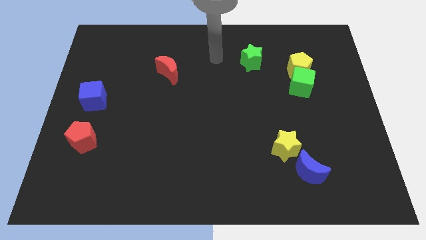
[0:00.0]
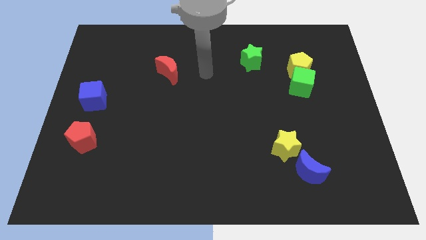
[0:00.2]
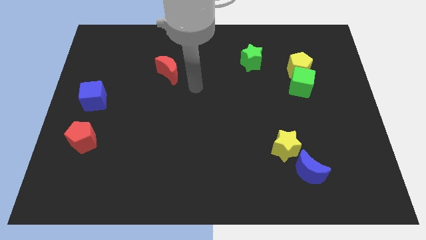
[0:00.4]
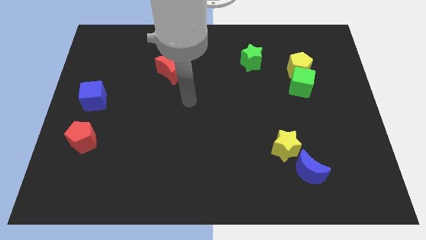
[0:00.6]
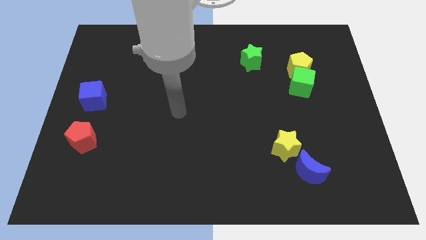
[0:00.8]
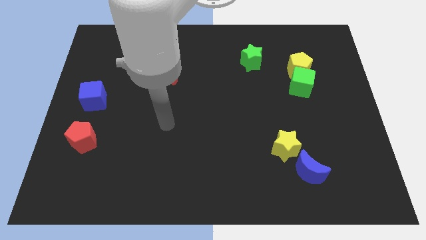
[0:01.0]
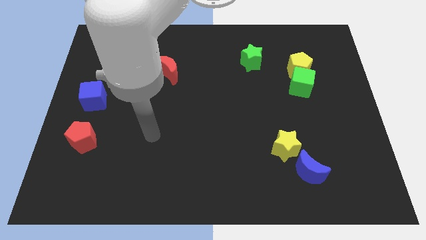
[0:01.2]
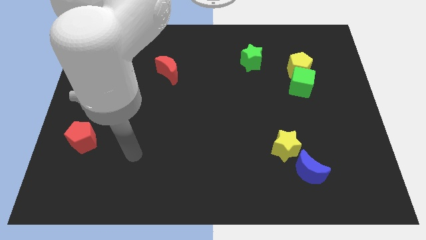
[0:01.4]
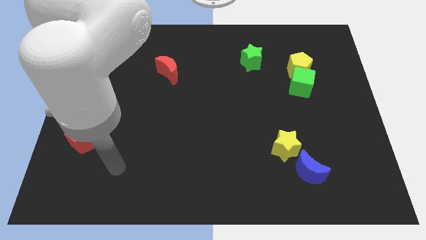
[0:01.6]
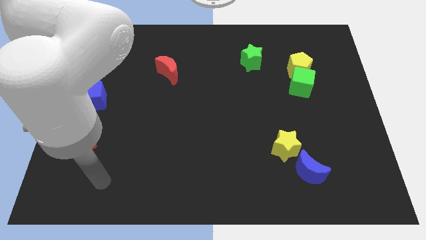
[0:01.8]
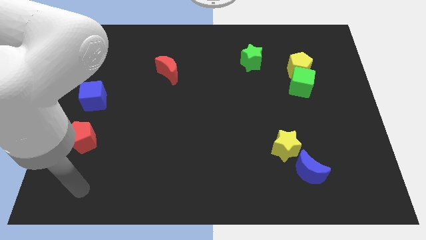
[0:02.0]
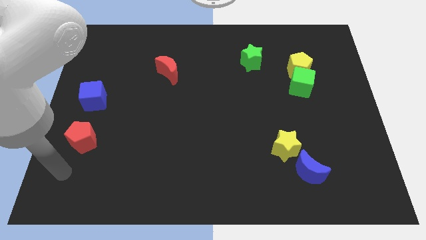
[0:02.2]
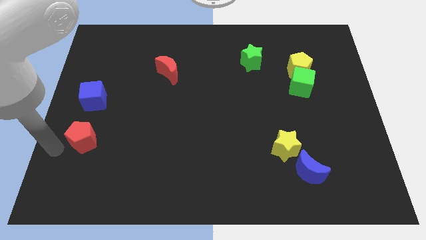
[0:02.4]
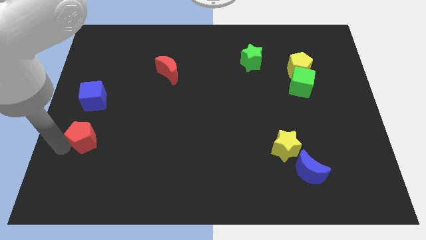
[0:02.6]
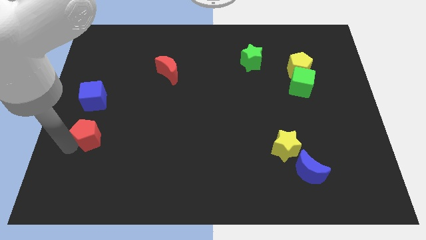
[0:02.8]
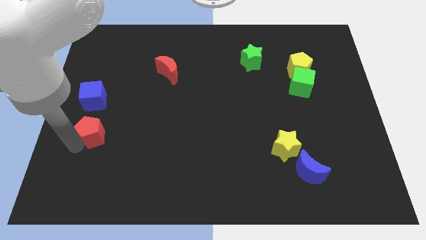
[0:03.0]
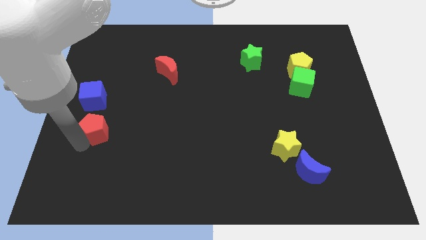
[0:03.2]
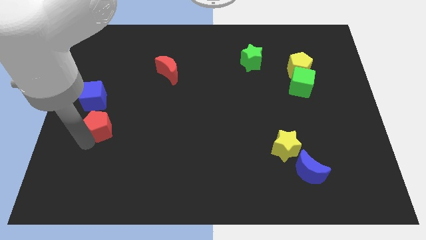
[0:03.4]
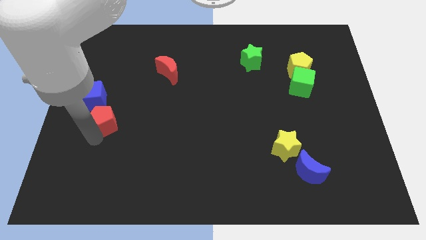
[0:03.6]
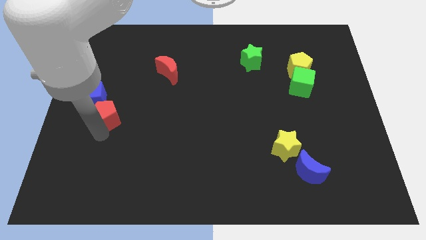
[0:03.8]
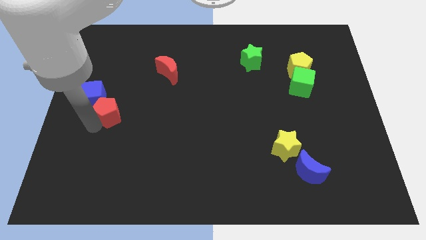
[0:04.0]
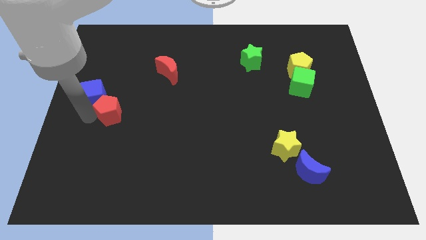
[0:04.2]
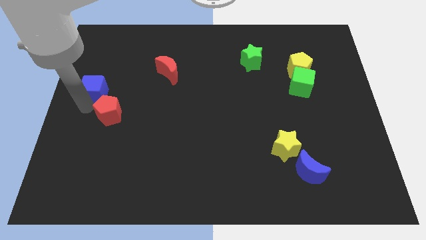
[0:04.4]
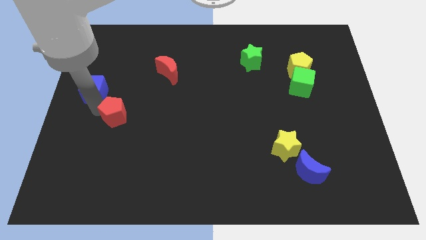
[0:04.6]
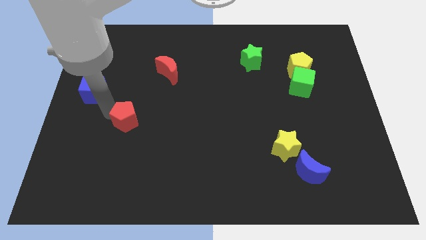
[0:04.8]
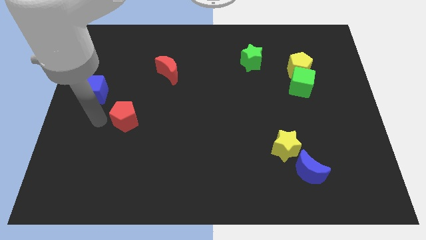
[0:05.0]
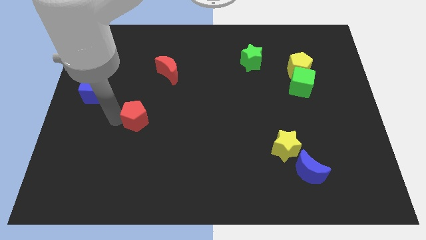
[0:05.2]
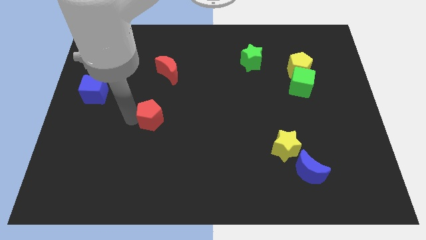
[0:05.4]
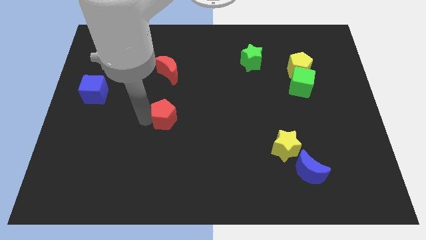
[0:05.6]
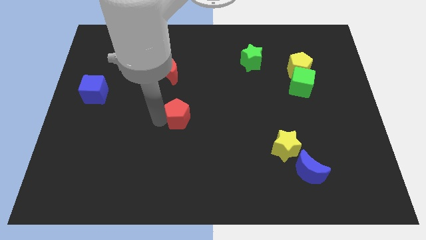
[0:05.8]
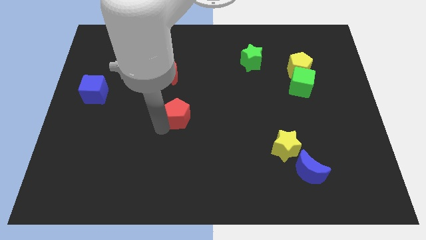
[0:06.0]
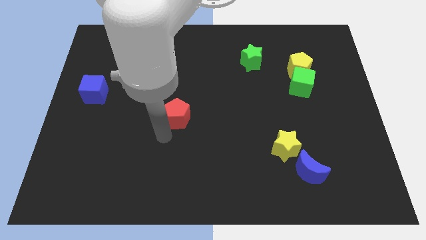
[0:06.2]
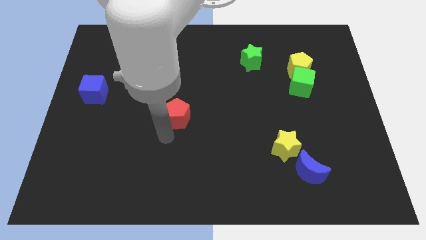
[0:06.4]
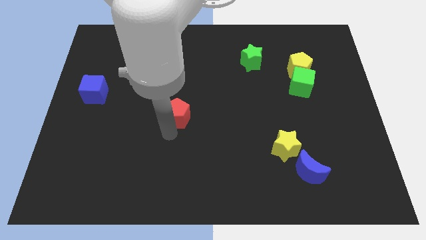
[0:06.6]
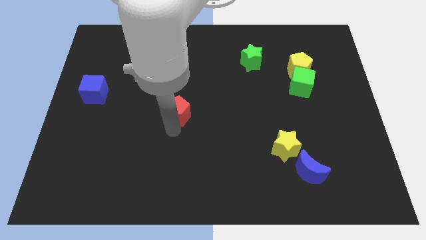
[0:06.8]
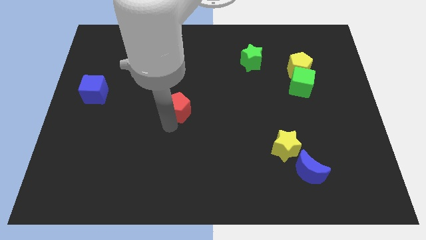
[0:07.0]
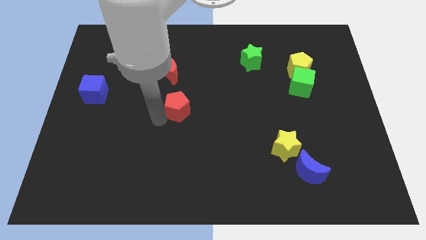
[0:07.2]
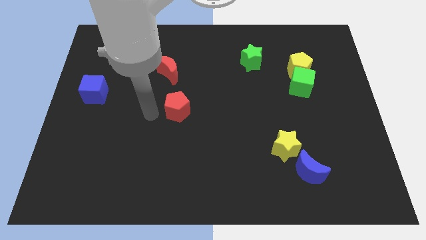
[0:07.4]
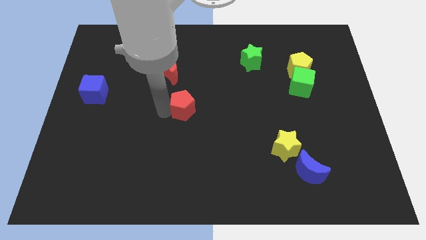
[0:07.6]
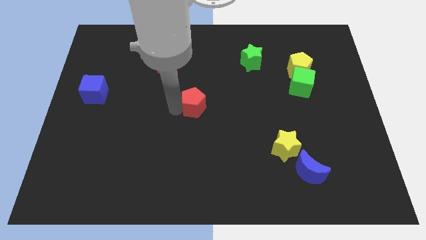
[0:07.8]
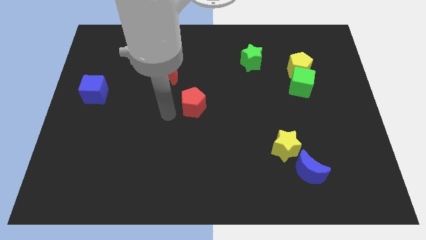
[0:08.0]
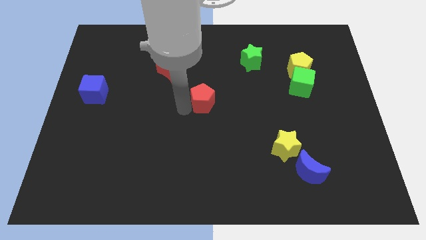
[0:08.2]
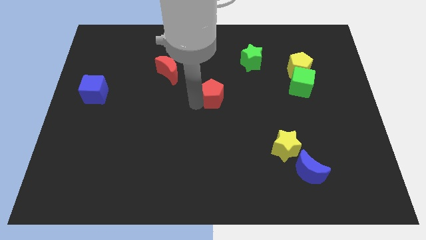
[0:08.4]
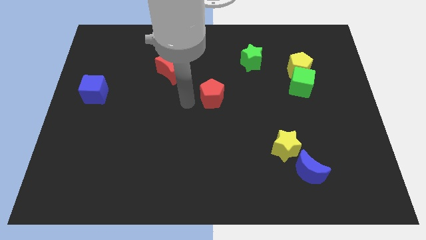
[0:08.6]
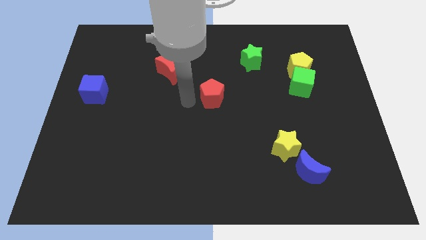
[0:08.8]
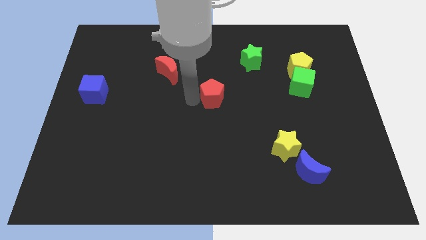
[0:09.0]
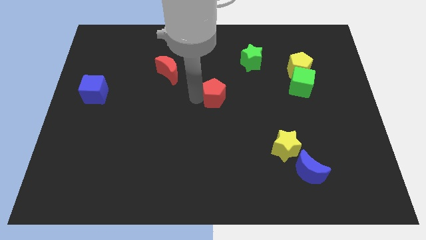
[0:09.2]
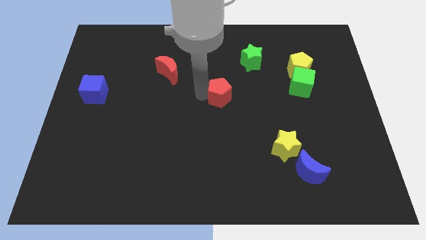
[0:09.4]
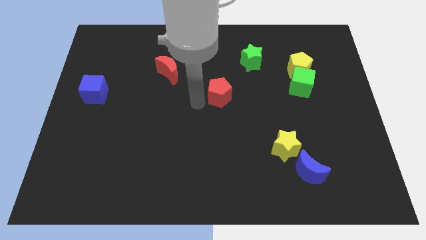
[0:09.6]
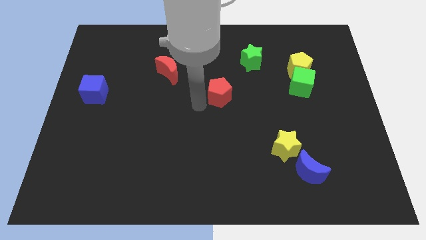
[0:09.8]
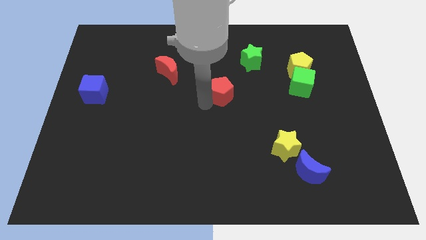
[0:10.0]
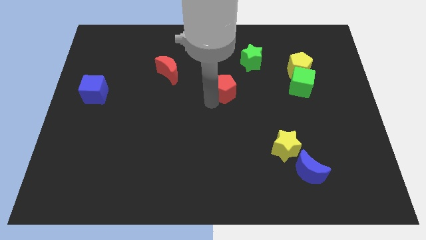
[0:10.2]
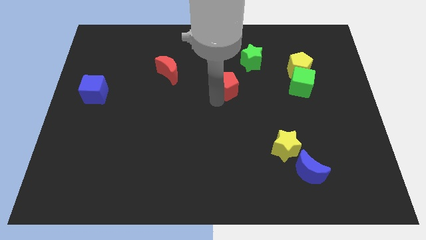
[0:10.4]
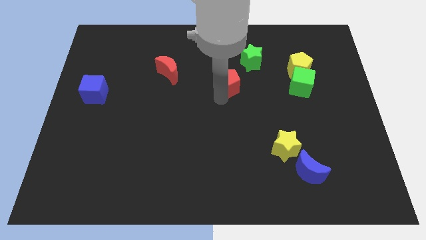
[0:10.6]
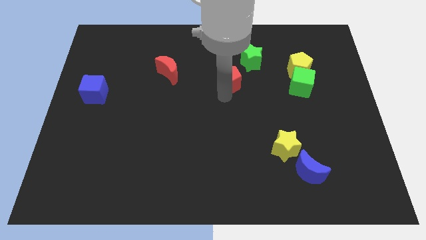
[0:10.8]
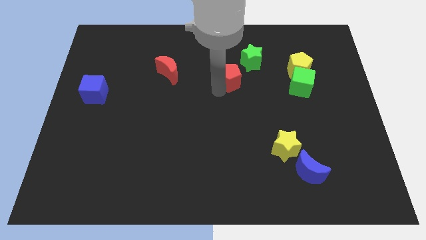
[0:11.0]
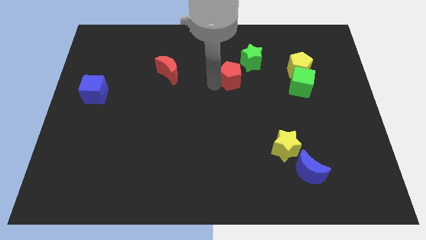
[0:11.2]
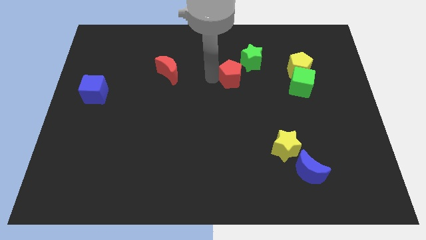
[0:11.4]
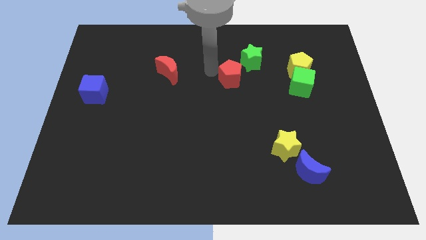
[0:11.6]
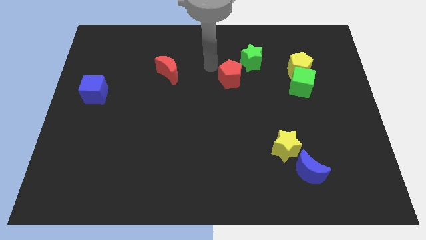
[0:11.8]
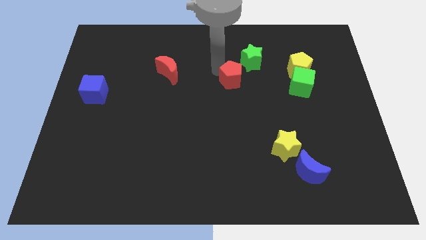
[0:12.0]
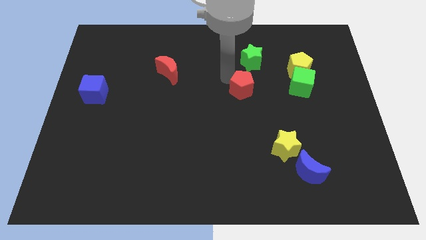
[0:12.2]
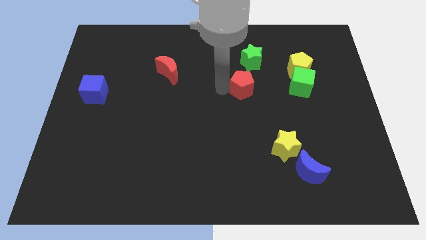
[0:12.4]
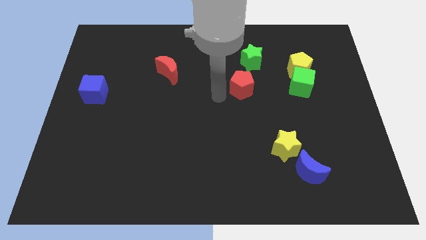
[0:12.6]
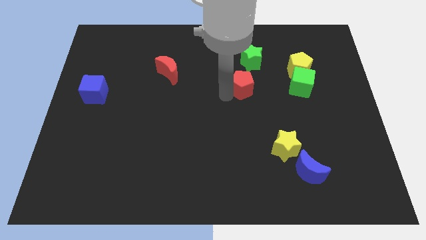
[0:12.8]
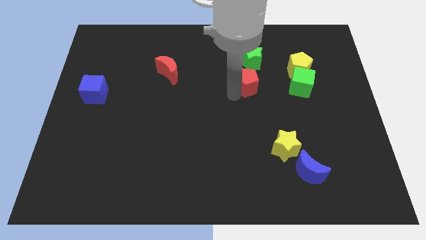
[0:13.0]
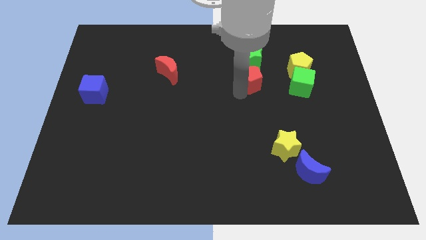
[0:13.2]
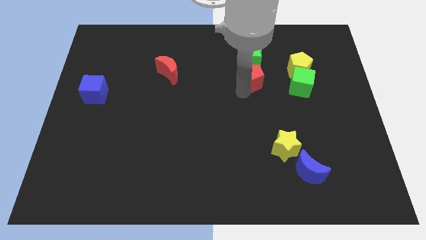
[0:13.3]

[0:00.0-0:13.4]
slide the red pentagon to the bottom right side of the green star

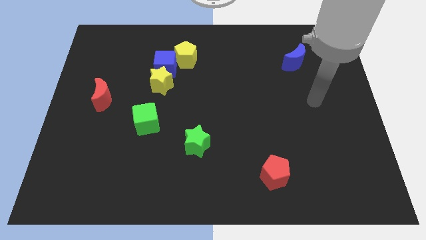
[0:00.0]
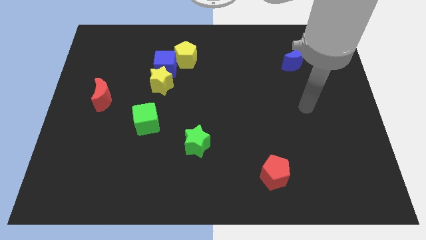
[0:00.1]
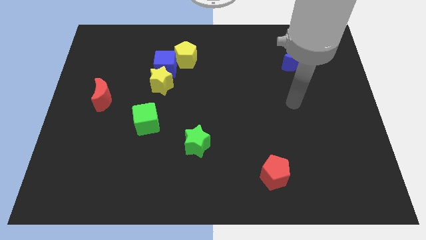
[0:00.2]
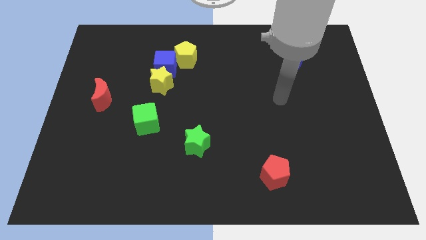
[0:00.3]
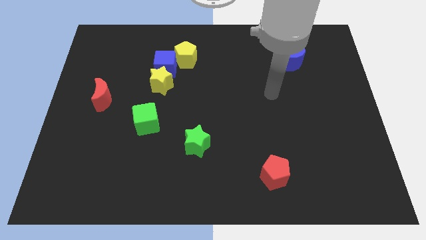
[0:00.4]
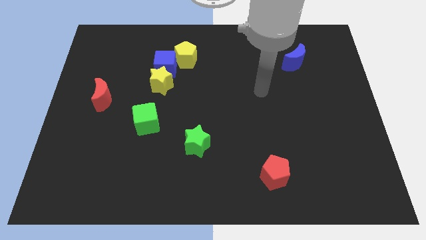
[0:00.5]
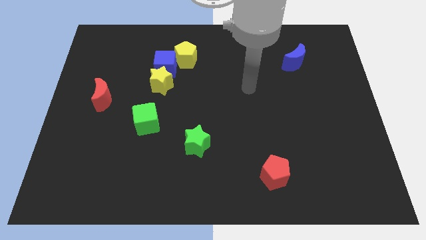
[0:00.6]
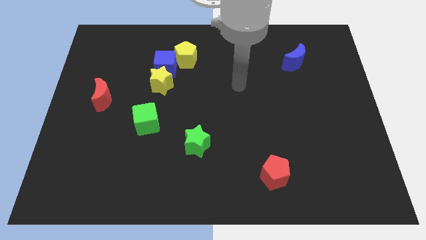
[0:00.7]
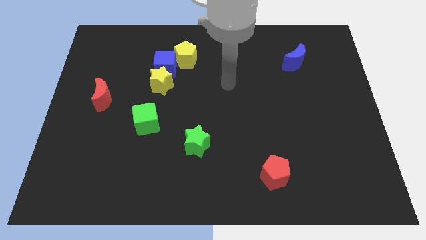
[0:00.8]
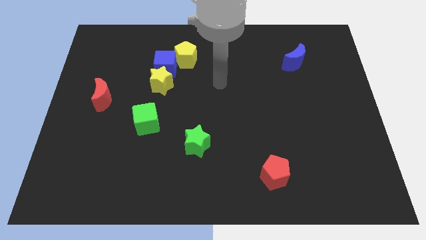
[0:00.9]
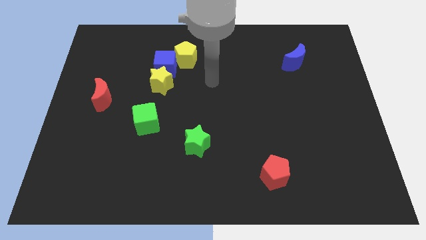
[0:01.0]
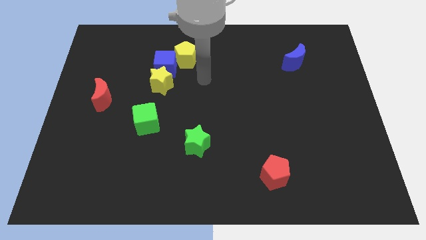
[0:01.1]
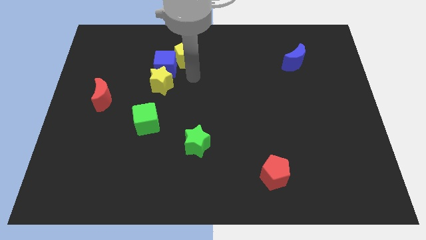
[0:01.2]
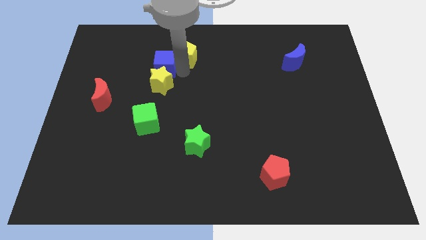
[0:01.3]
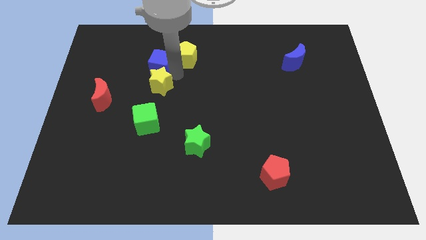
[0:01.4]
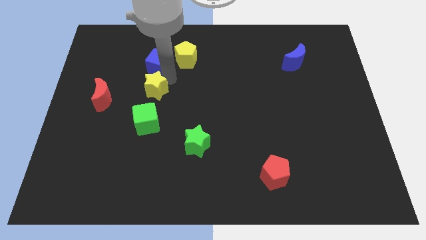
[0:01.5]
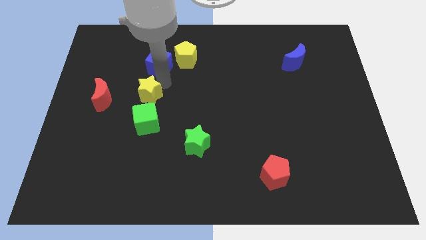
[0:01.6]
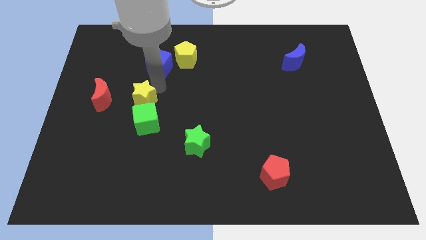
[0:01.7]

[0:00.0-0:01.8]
slide the yellow star diagonally up and to the left of the green cube
